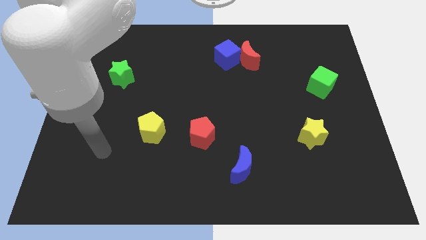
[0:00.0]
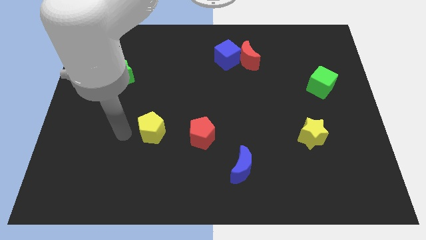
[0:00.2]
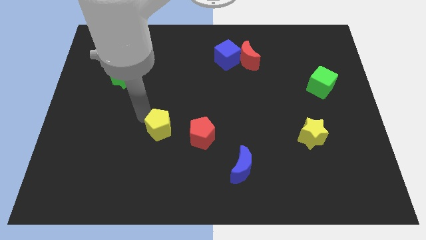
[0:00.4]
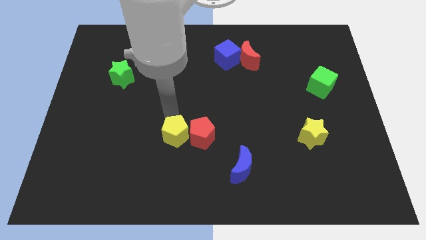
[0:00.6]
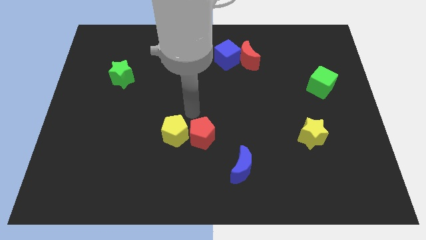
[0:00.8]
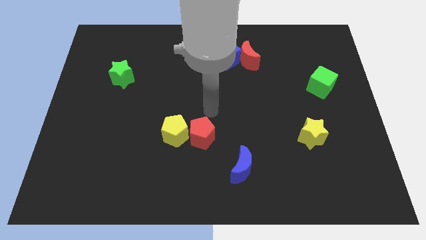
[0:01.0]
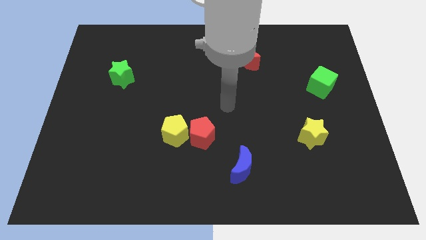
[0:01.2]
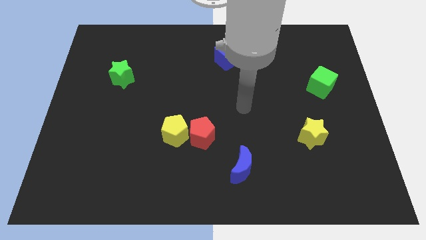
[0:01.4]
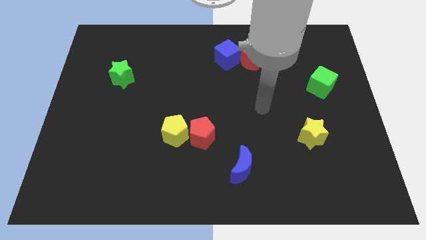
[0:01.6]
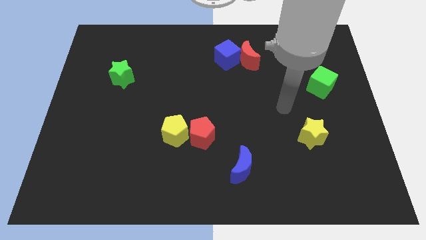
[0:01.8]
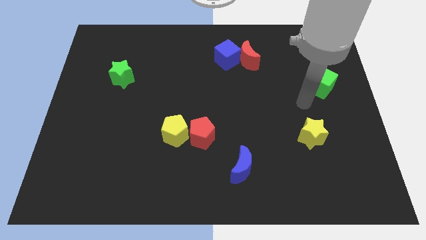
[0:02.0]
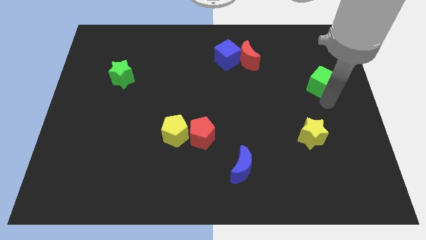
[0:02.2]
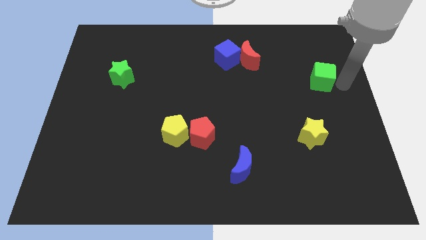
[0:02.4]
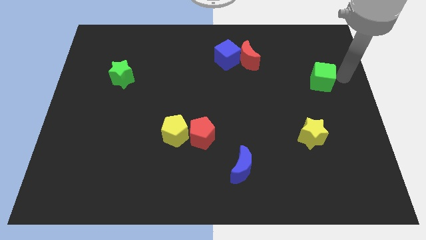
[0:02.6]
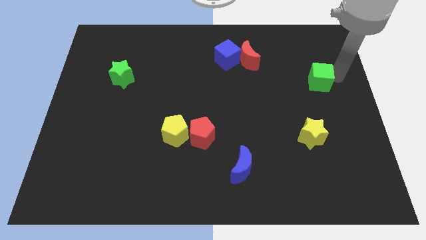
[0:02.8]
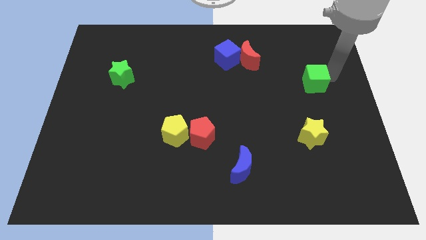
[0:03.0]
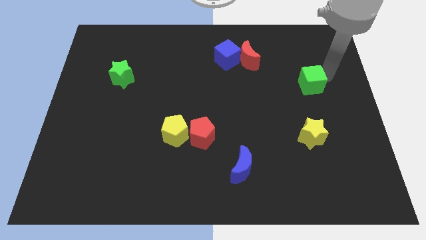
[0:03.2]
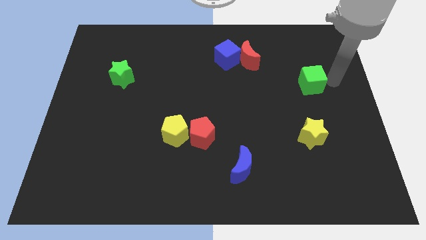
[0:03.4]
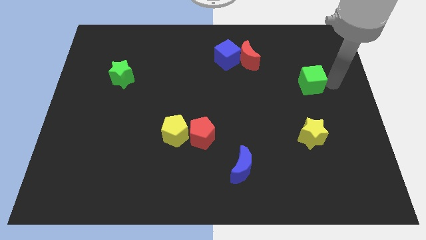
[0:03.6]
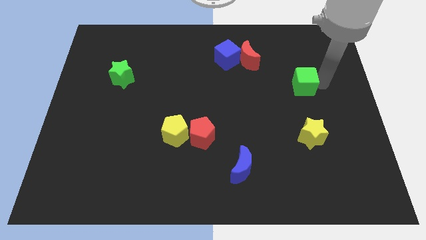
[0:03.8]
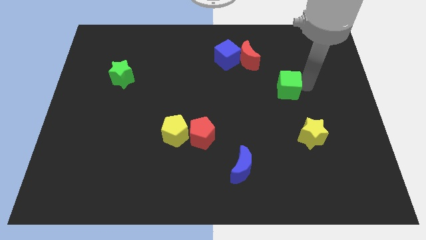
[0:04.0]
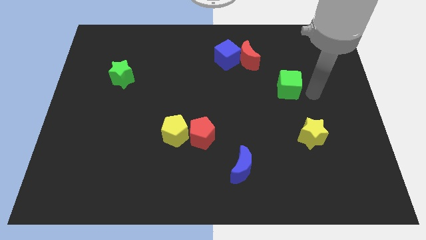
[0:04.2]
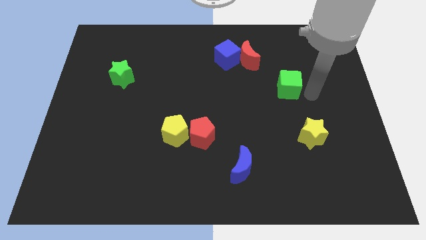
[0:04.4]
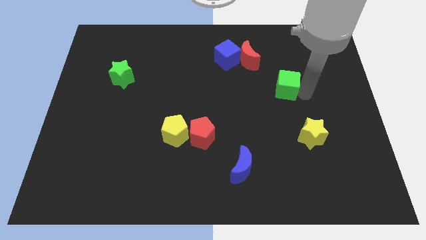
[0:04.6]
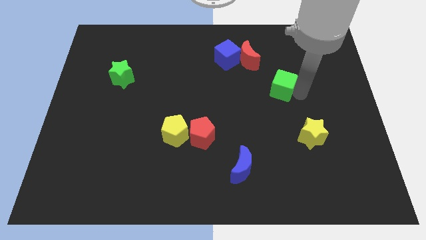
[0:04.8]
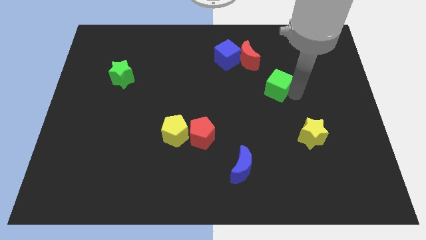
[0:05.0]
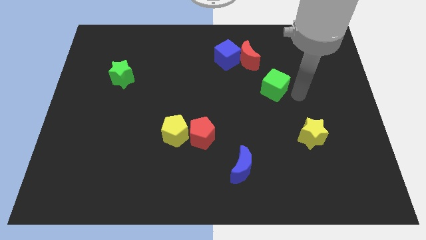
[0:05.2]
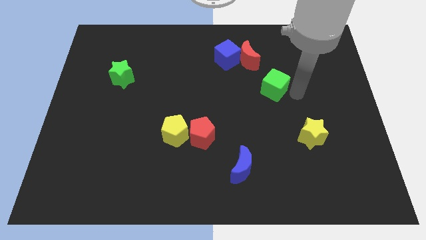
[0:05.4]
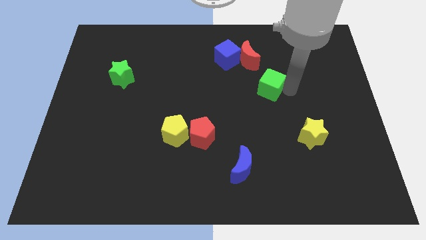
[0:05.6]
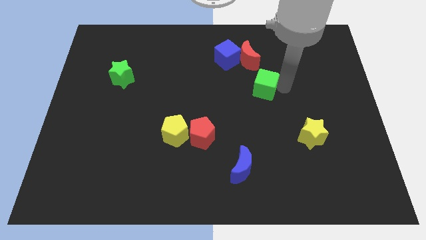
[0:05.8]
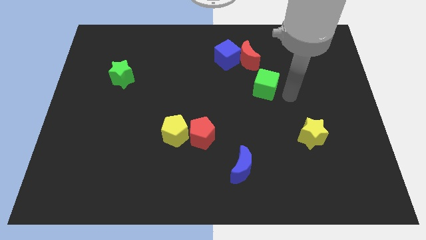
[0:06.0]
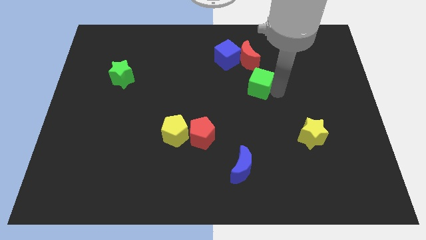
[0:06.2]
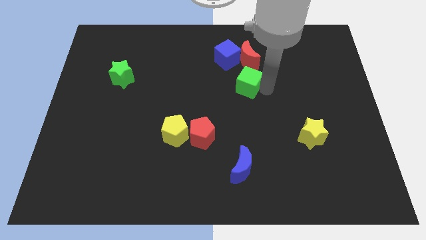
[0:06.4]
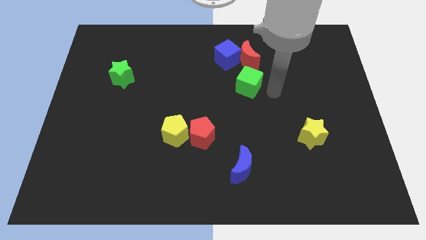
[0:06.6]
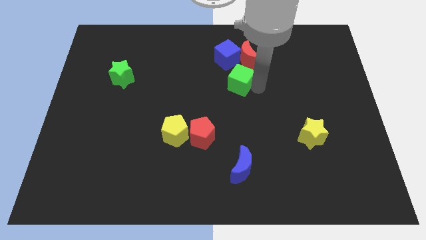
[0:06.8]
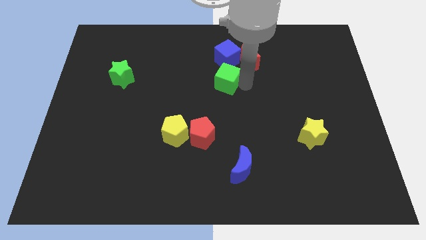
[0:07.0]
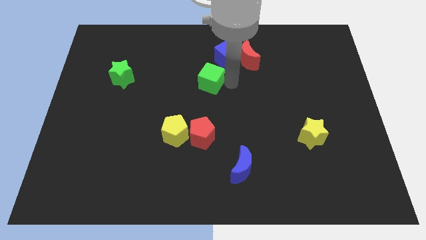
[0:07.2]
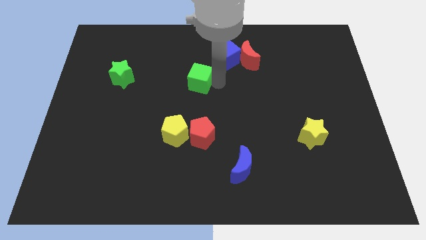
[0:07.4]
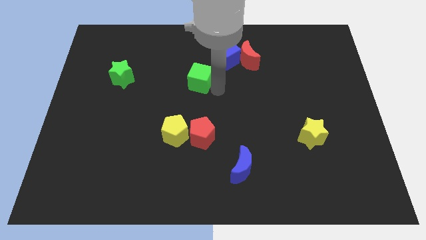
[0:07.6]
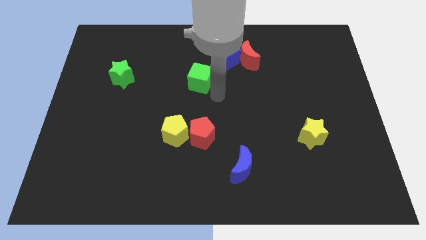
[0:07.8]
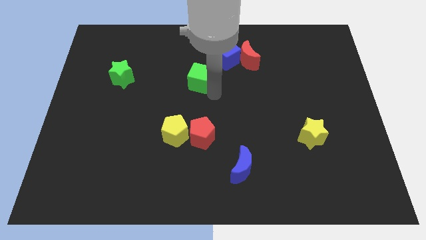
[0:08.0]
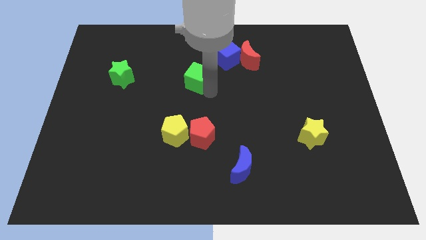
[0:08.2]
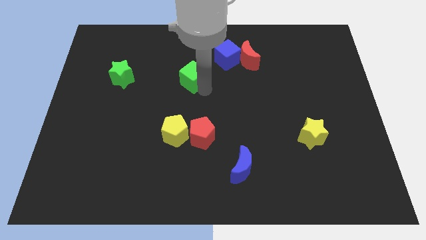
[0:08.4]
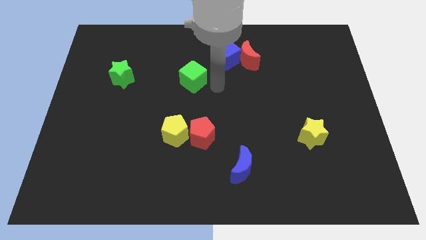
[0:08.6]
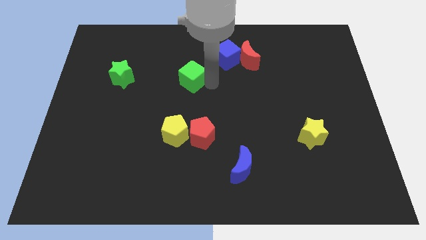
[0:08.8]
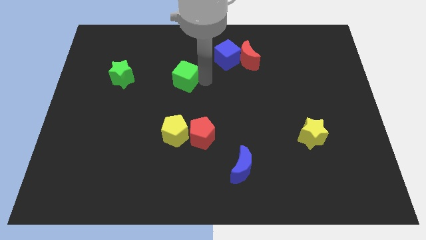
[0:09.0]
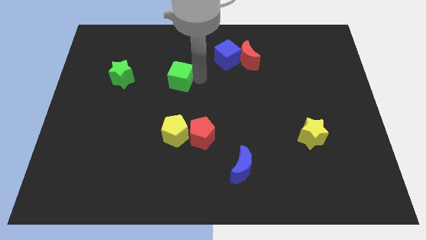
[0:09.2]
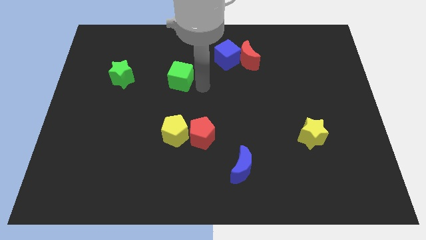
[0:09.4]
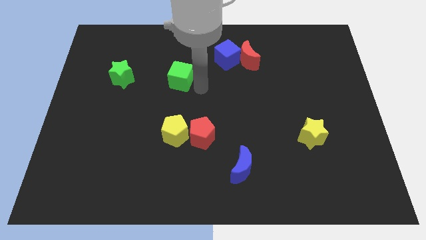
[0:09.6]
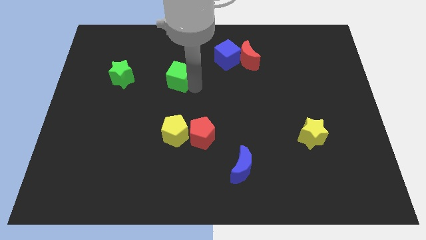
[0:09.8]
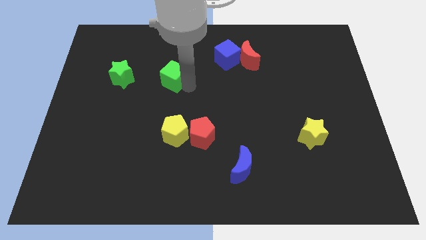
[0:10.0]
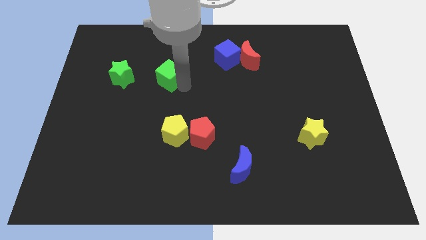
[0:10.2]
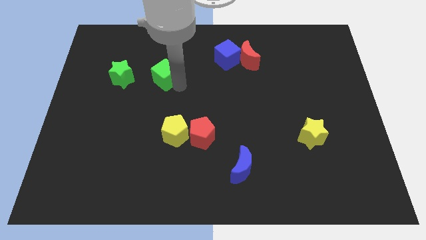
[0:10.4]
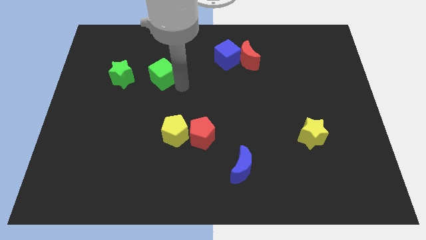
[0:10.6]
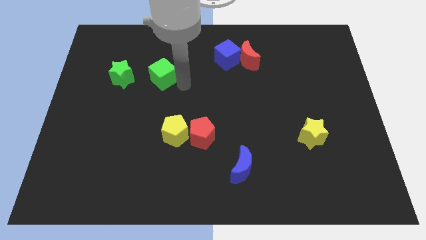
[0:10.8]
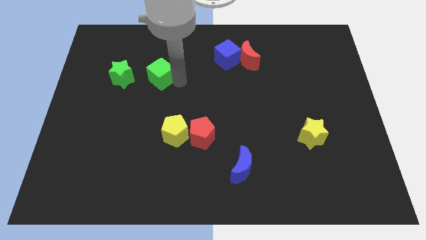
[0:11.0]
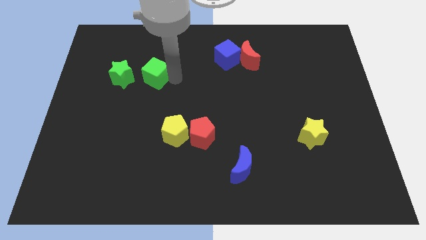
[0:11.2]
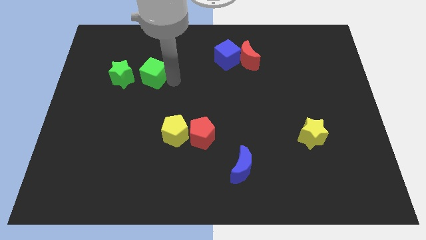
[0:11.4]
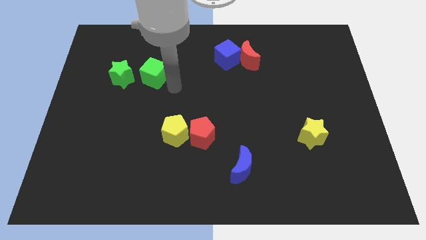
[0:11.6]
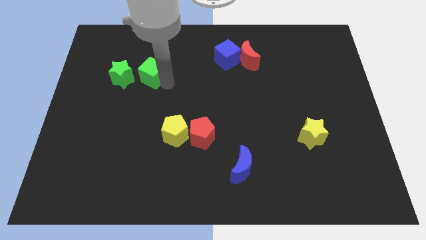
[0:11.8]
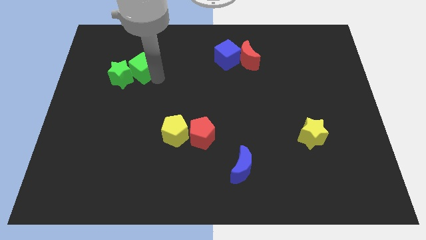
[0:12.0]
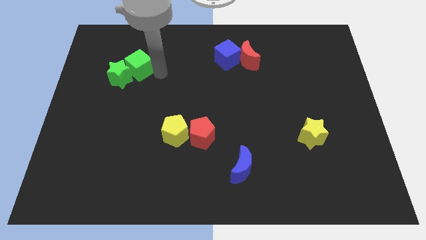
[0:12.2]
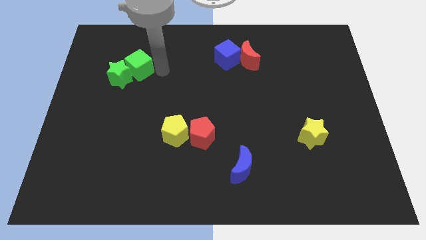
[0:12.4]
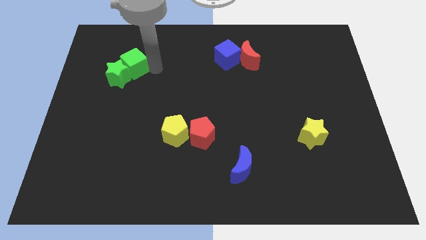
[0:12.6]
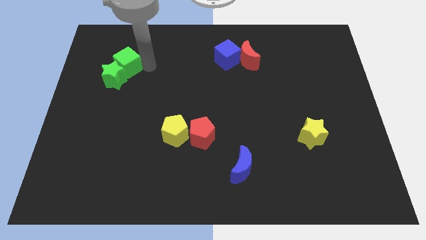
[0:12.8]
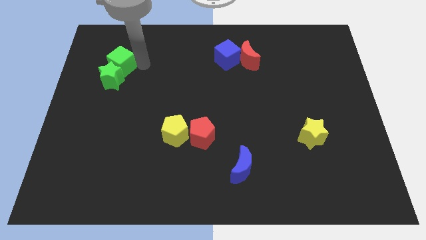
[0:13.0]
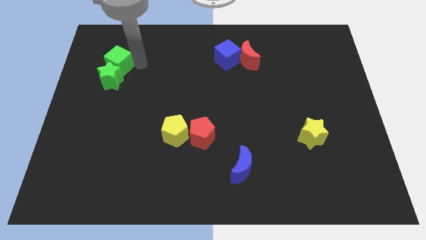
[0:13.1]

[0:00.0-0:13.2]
slide the green cube diagonally up and to the left of the green star

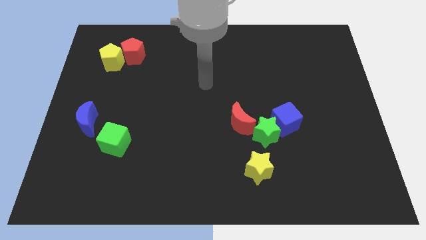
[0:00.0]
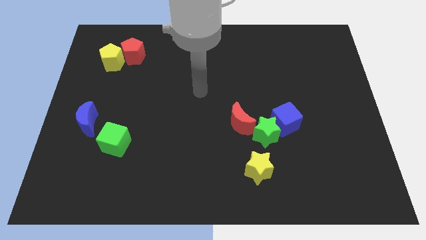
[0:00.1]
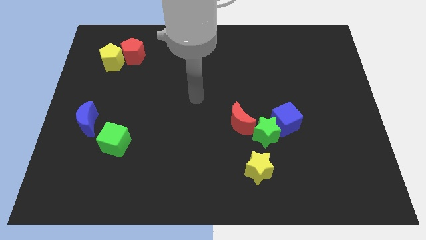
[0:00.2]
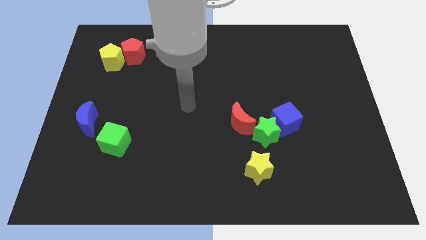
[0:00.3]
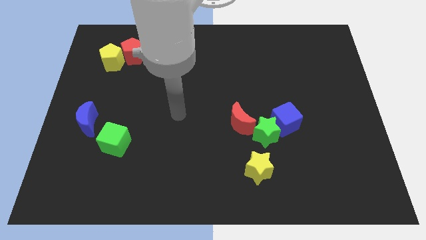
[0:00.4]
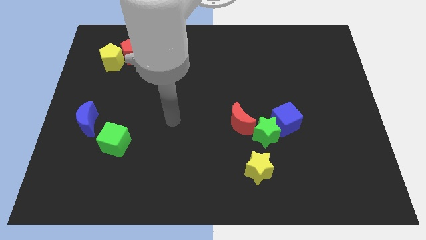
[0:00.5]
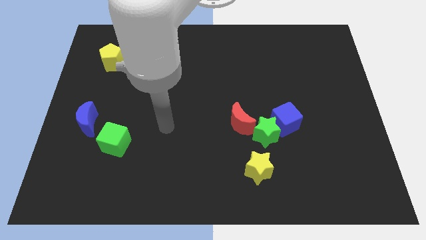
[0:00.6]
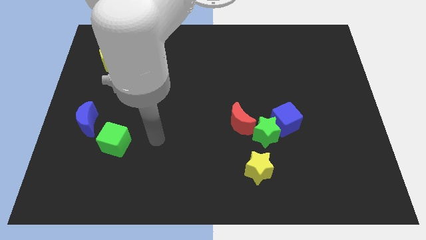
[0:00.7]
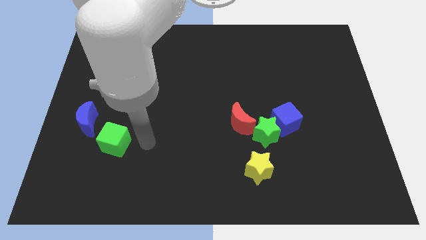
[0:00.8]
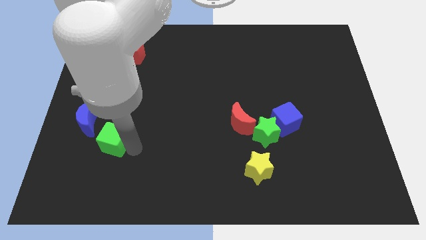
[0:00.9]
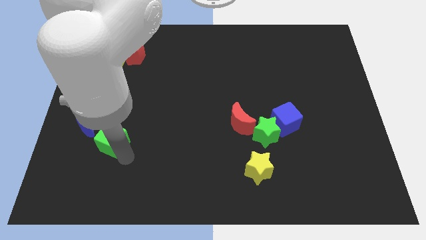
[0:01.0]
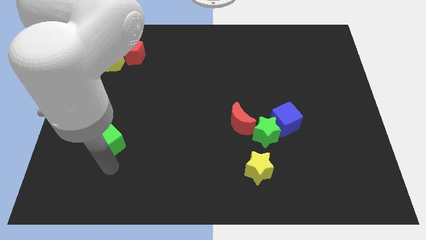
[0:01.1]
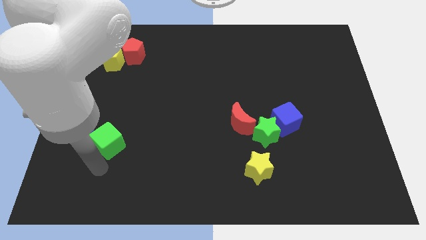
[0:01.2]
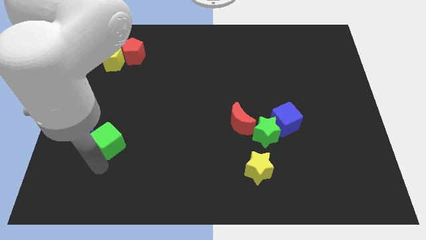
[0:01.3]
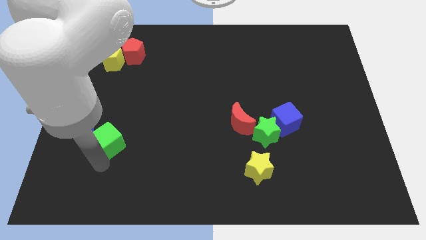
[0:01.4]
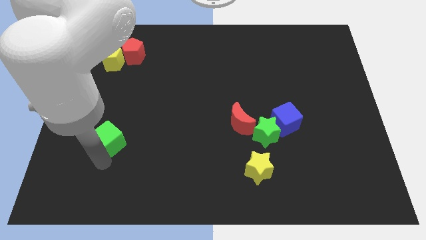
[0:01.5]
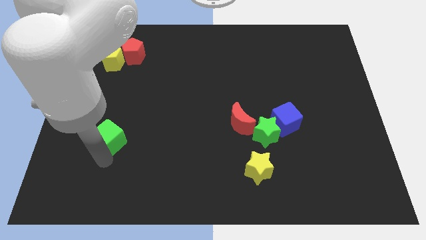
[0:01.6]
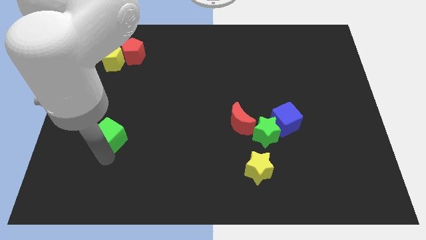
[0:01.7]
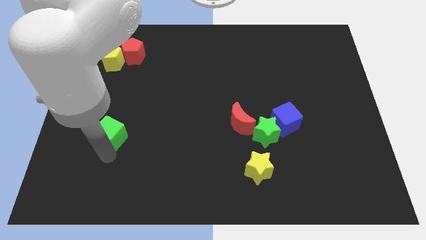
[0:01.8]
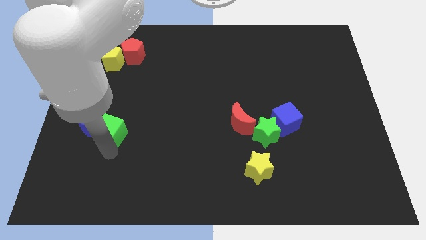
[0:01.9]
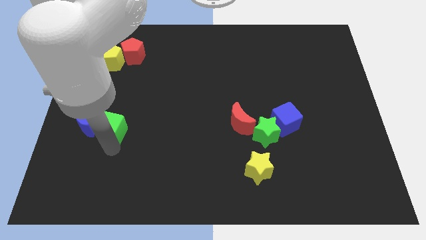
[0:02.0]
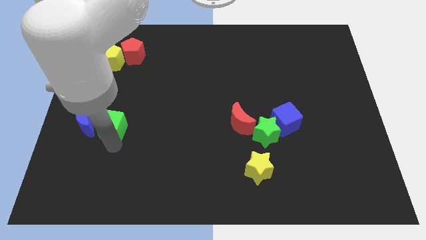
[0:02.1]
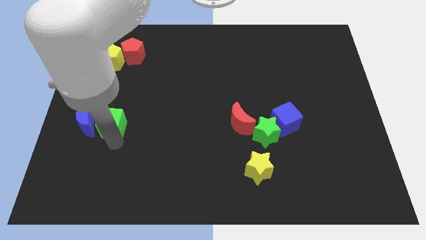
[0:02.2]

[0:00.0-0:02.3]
push the green cube to the top right of the blue moon
